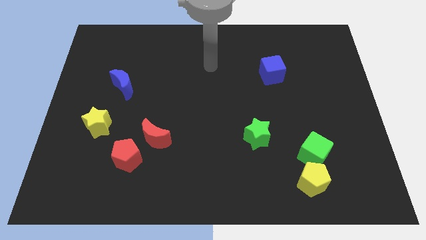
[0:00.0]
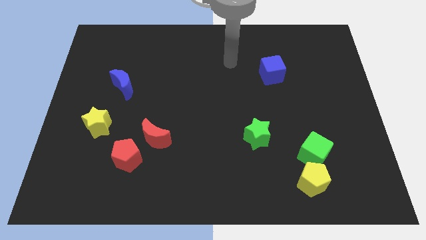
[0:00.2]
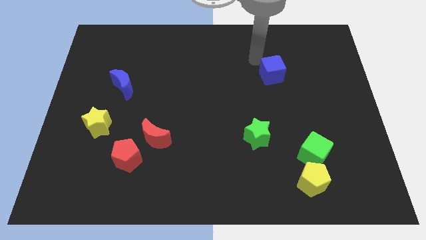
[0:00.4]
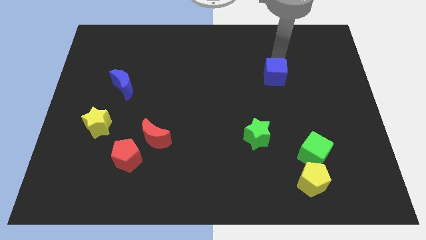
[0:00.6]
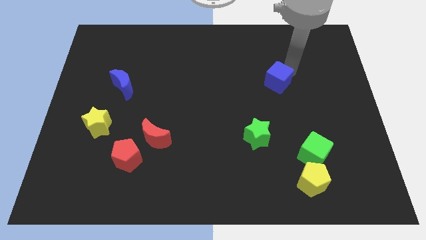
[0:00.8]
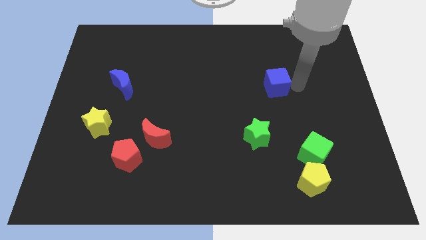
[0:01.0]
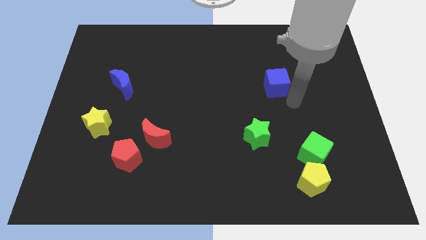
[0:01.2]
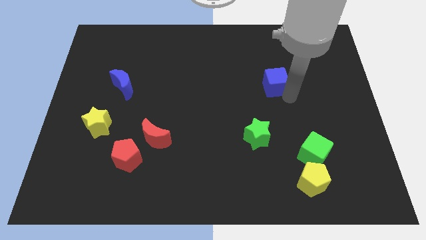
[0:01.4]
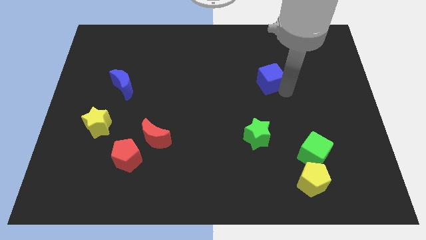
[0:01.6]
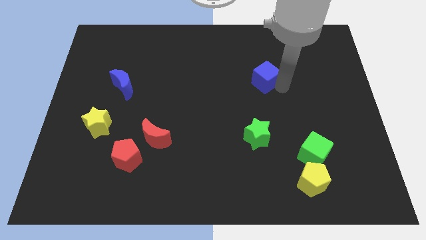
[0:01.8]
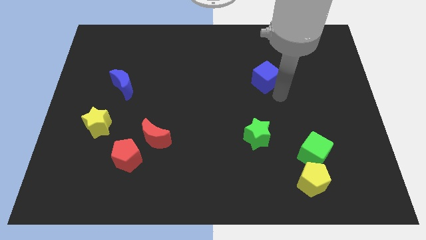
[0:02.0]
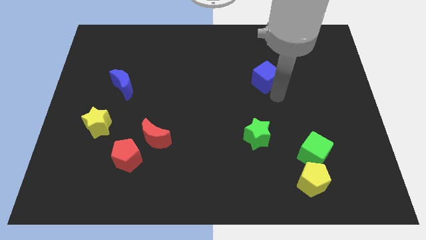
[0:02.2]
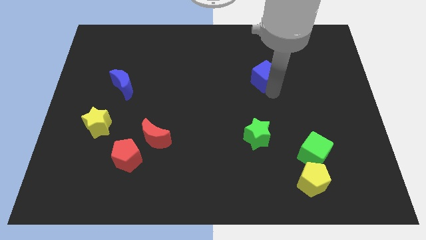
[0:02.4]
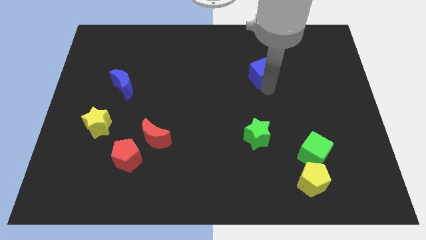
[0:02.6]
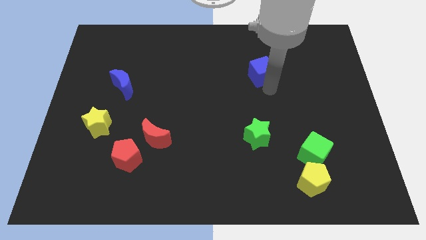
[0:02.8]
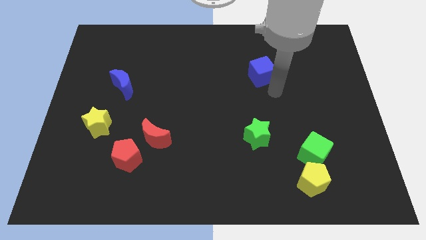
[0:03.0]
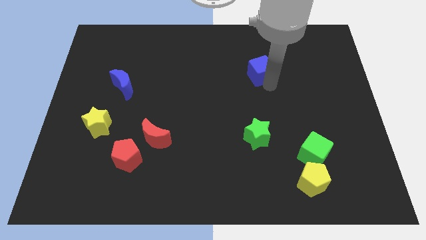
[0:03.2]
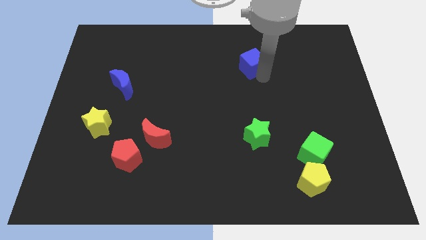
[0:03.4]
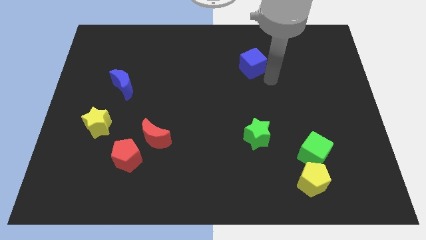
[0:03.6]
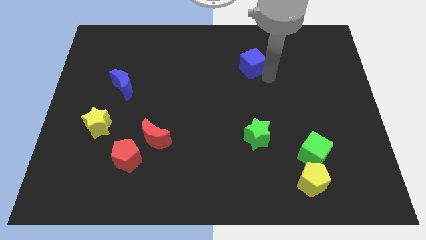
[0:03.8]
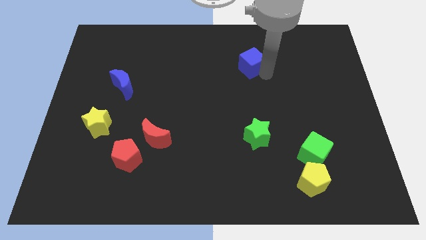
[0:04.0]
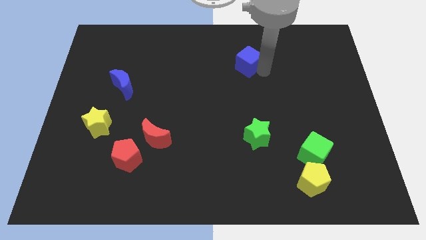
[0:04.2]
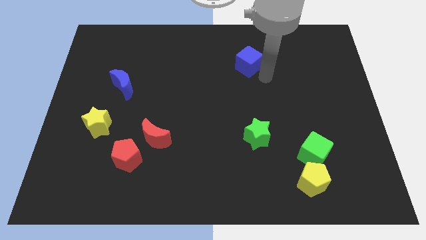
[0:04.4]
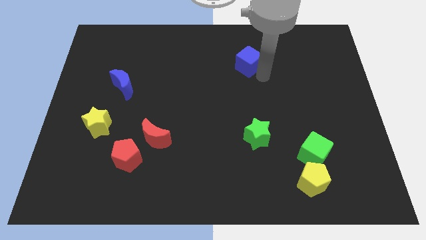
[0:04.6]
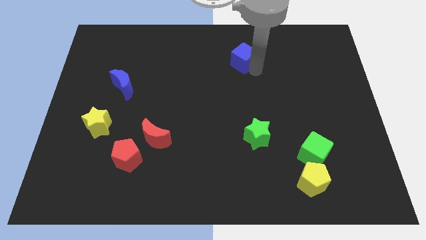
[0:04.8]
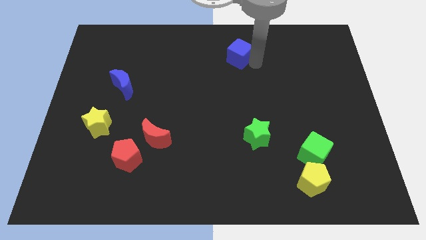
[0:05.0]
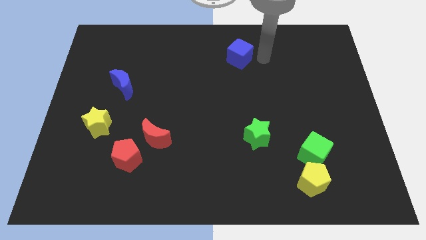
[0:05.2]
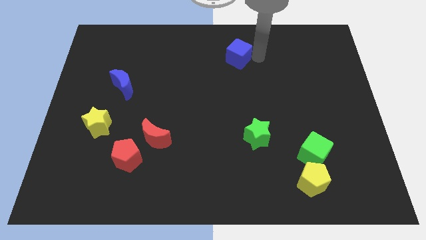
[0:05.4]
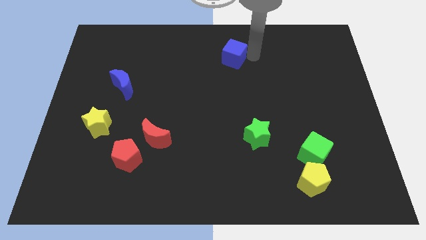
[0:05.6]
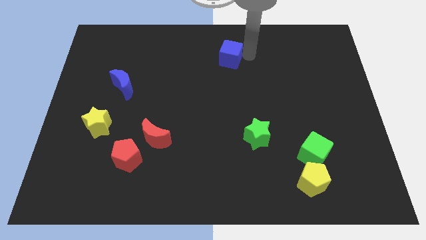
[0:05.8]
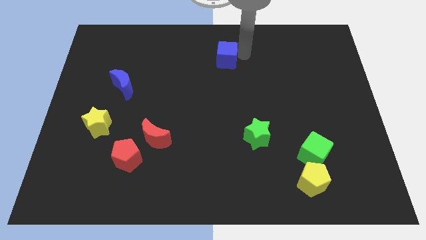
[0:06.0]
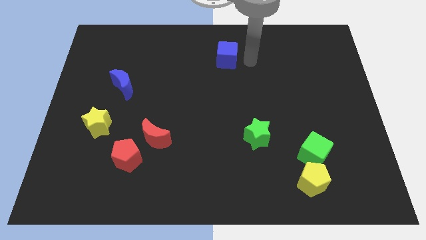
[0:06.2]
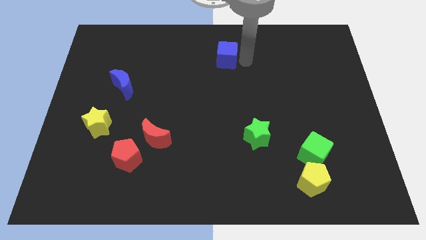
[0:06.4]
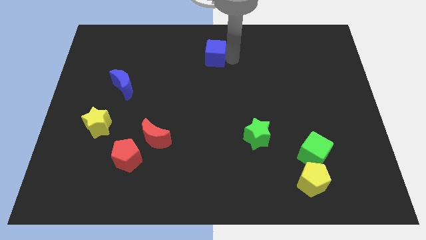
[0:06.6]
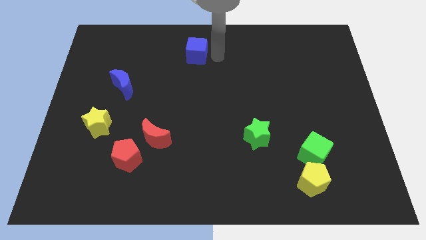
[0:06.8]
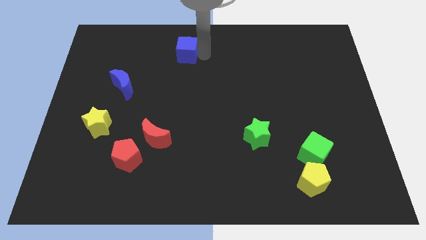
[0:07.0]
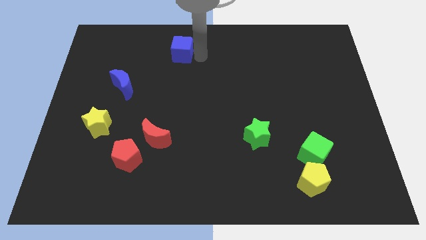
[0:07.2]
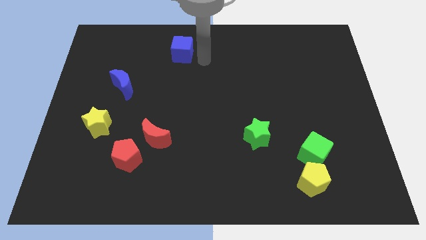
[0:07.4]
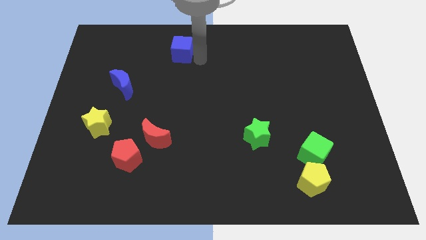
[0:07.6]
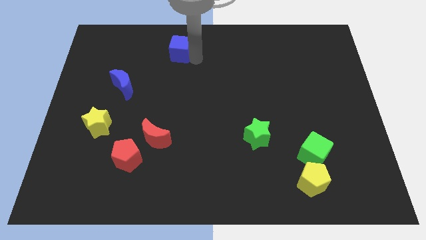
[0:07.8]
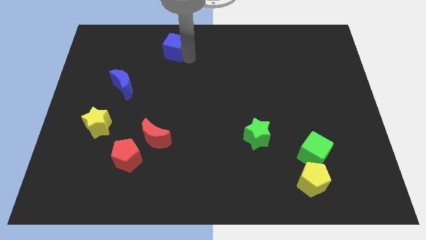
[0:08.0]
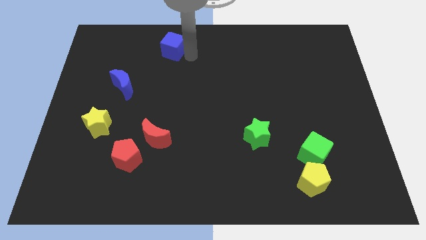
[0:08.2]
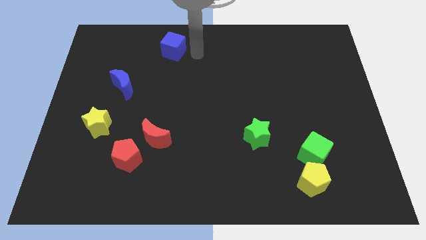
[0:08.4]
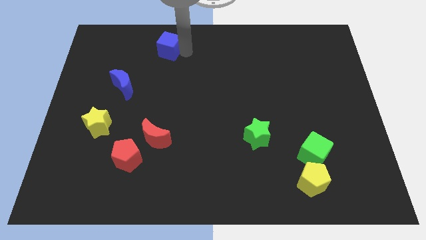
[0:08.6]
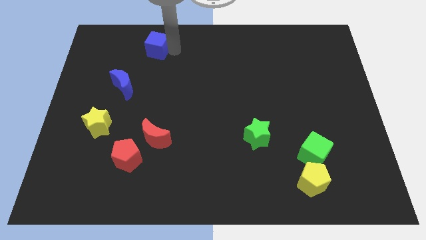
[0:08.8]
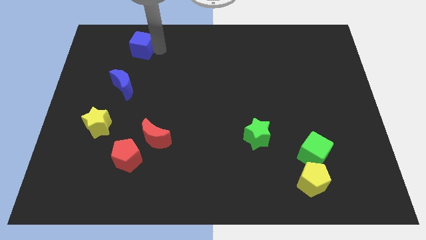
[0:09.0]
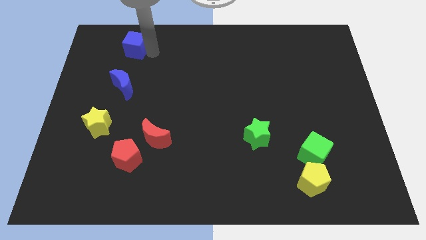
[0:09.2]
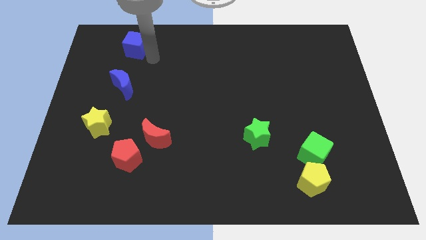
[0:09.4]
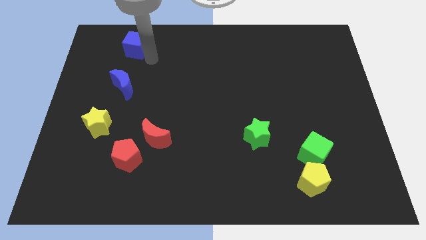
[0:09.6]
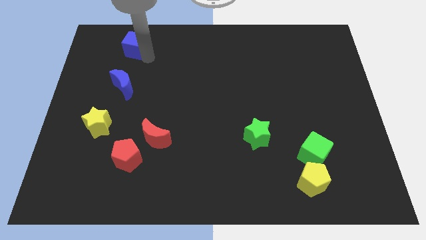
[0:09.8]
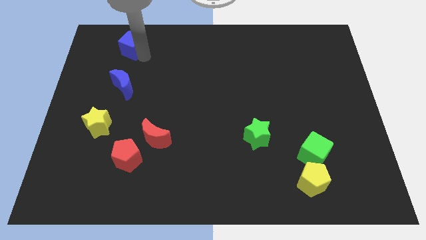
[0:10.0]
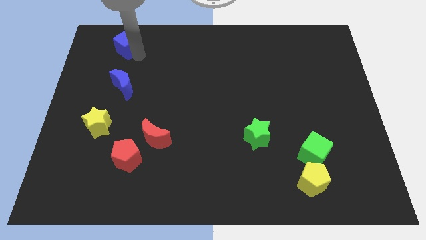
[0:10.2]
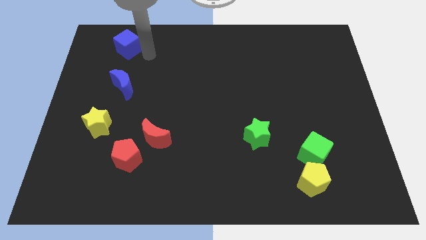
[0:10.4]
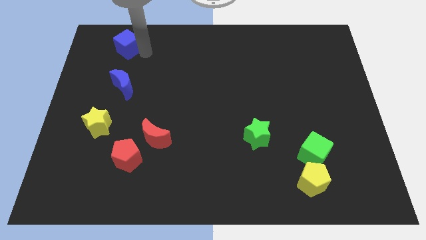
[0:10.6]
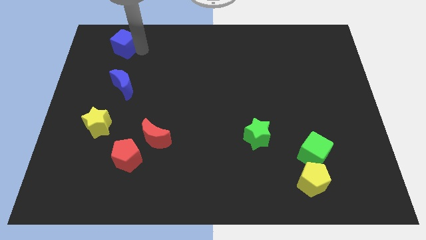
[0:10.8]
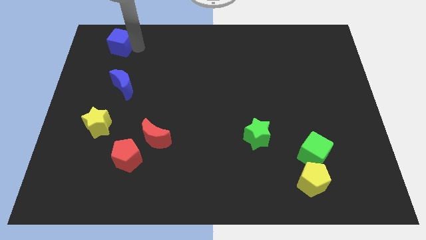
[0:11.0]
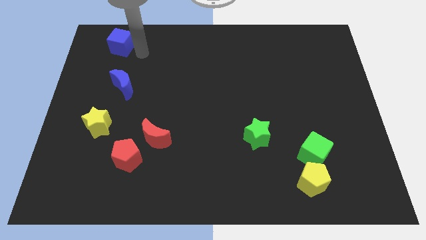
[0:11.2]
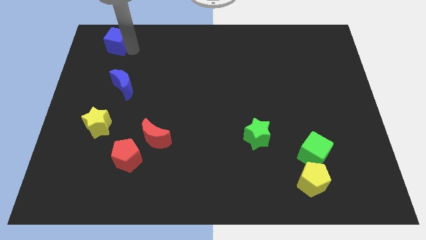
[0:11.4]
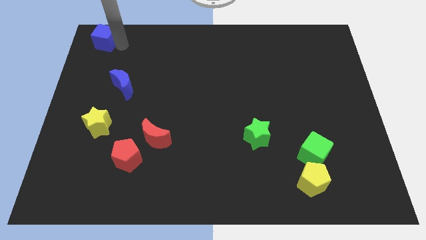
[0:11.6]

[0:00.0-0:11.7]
move the blue cube to the upper left corner
